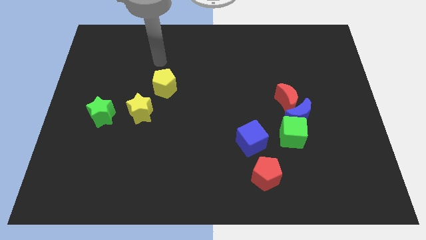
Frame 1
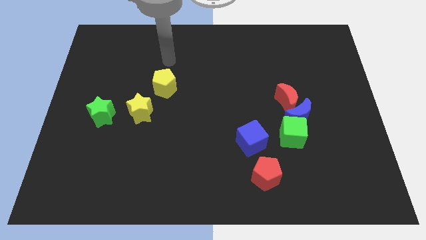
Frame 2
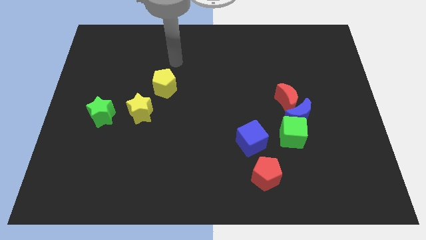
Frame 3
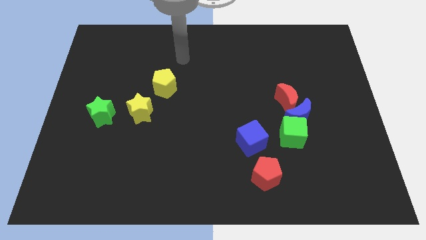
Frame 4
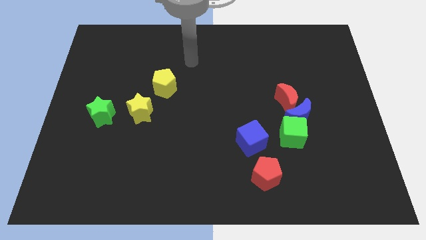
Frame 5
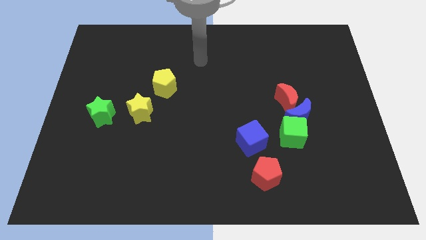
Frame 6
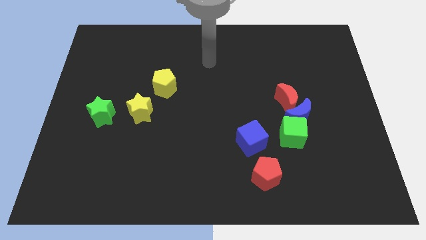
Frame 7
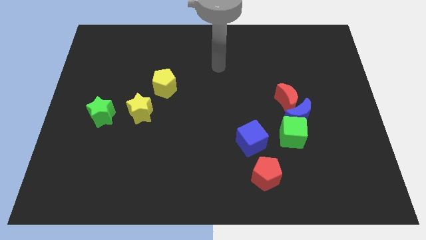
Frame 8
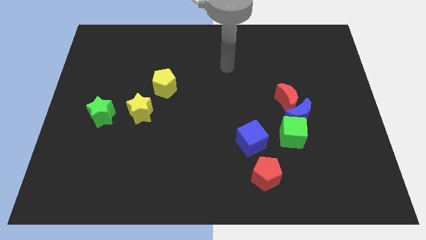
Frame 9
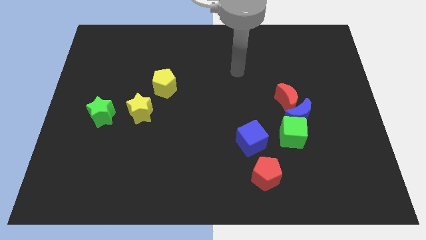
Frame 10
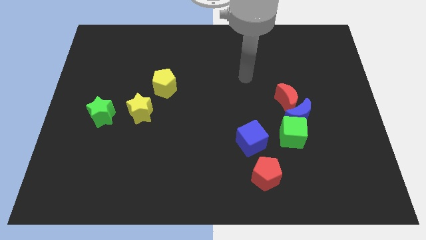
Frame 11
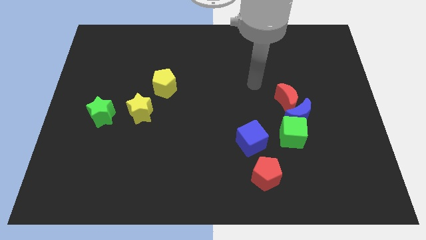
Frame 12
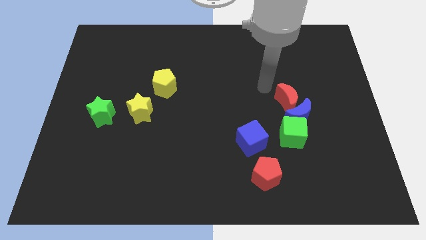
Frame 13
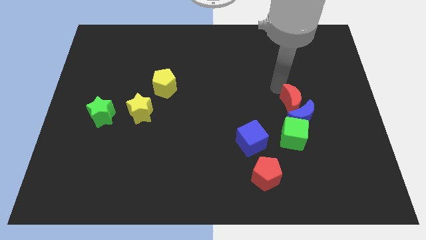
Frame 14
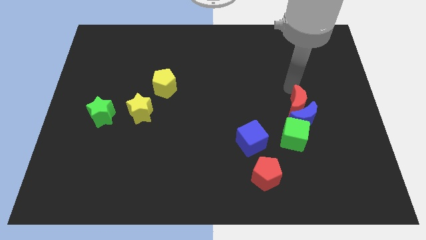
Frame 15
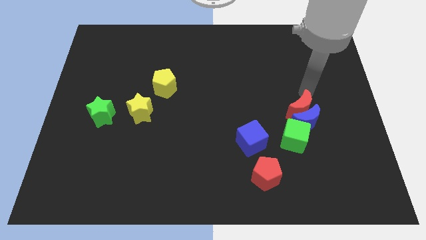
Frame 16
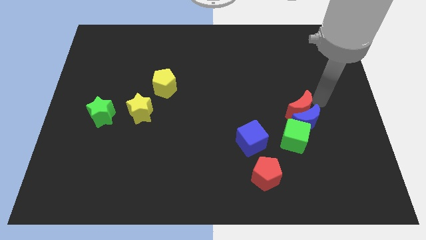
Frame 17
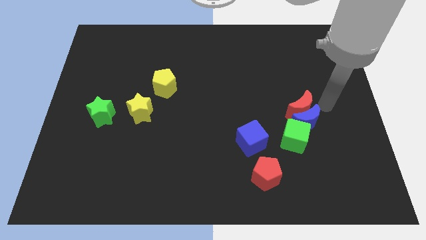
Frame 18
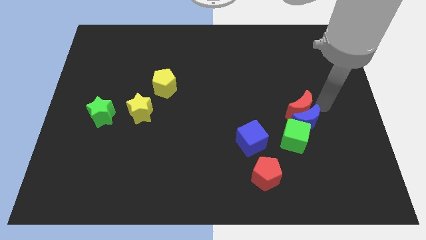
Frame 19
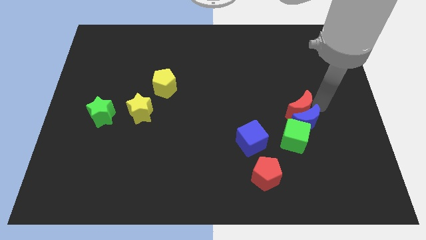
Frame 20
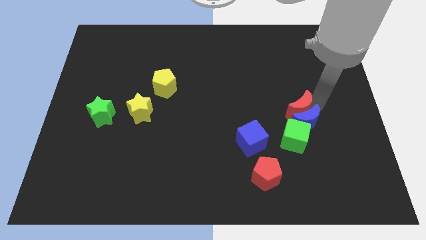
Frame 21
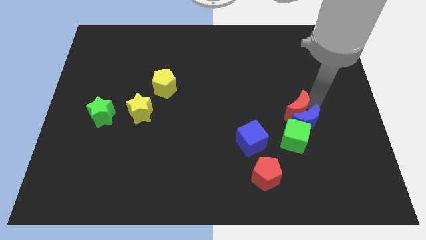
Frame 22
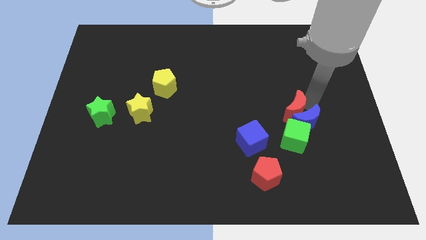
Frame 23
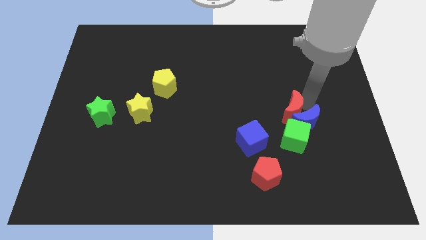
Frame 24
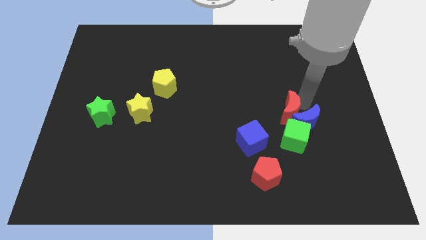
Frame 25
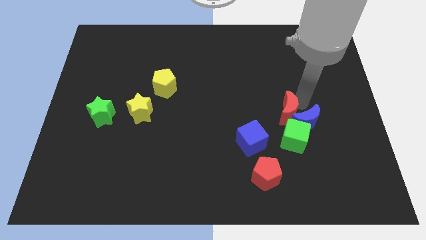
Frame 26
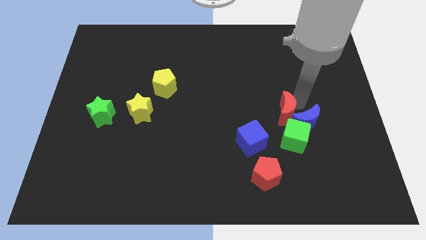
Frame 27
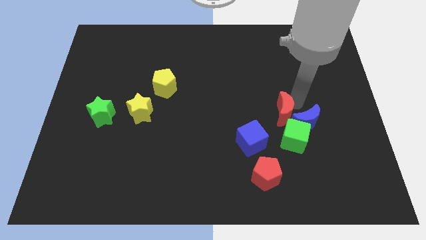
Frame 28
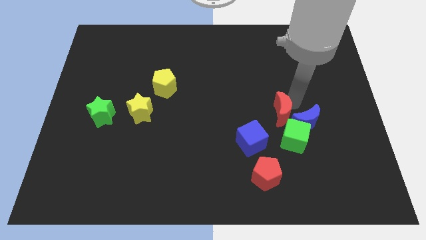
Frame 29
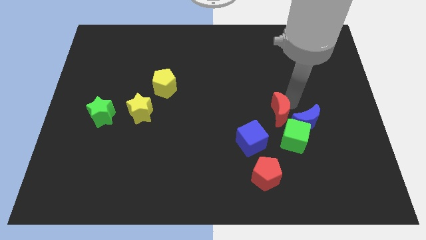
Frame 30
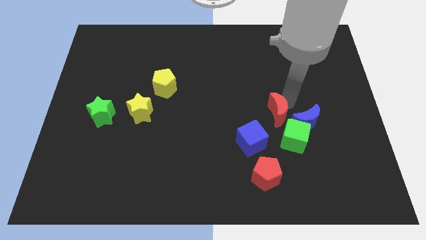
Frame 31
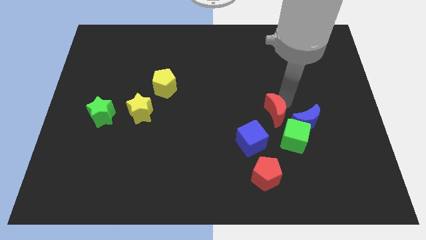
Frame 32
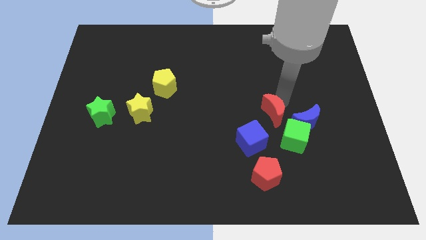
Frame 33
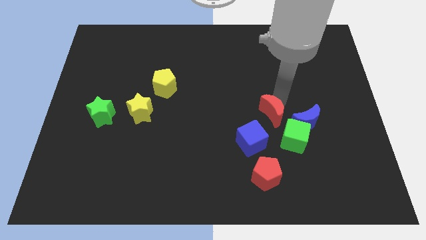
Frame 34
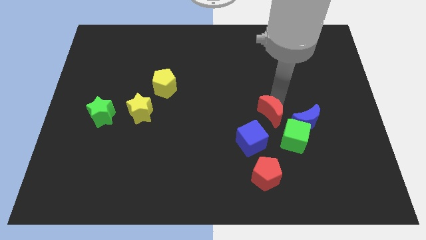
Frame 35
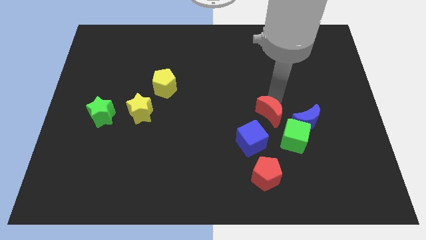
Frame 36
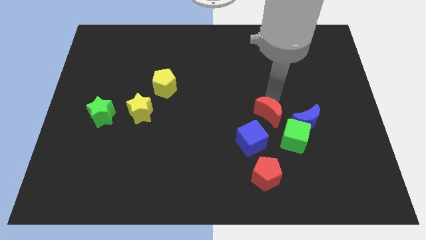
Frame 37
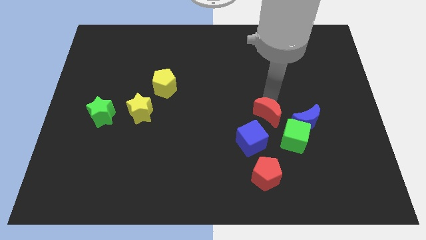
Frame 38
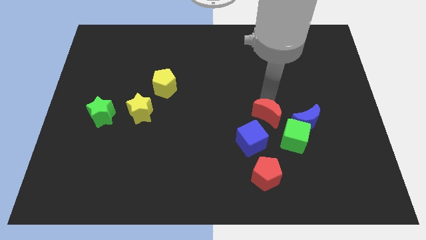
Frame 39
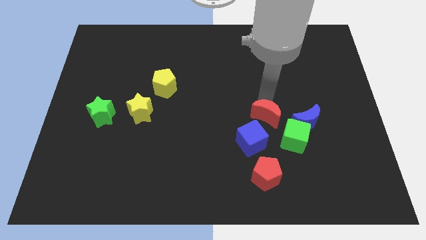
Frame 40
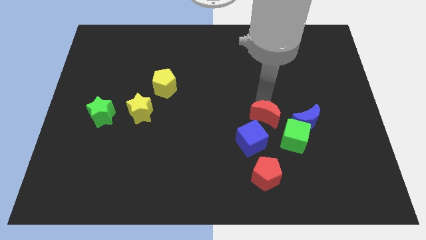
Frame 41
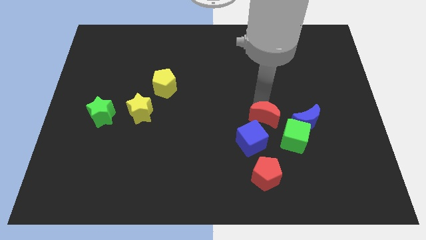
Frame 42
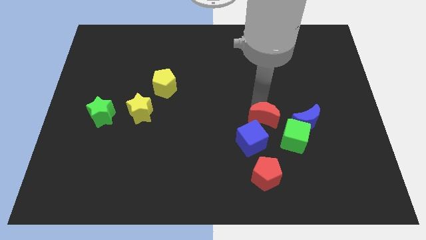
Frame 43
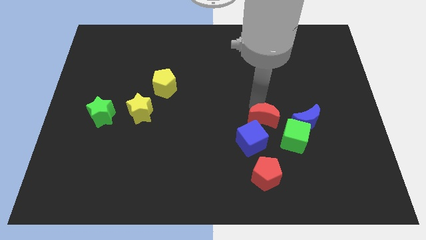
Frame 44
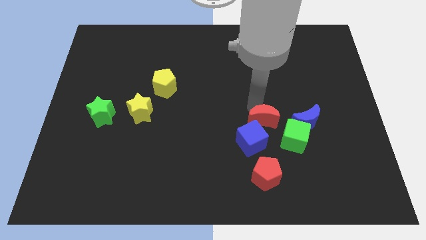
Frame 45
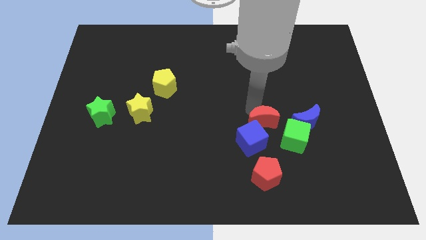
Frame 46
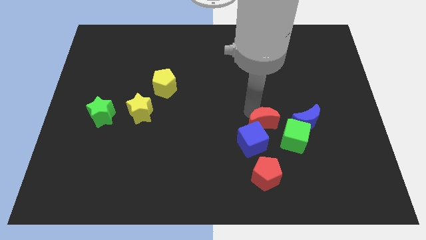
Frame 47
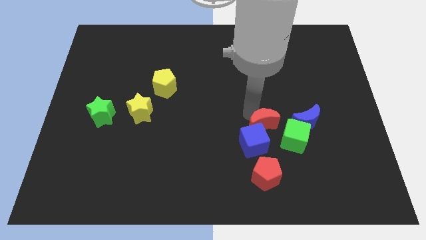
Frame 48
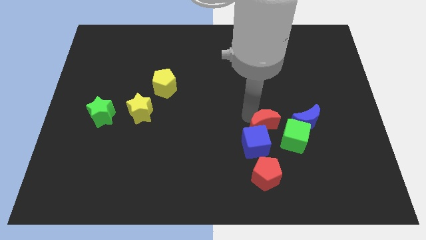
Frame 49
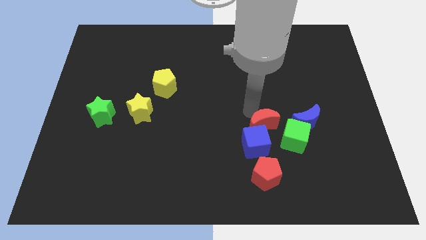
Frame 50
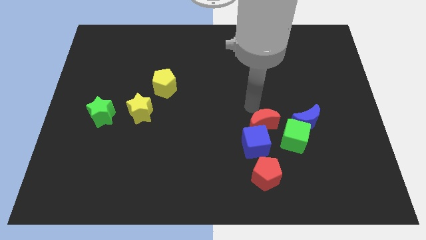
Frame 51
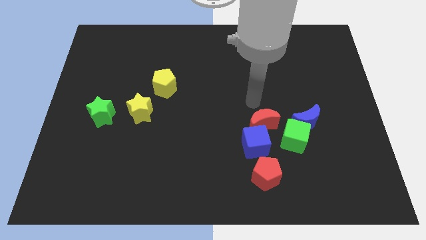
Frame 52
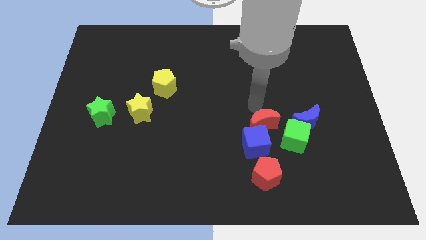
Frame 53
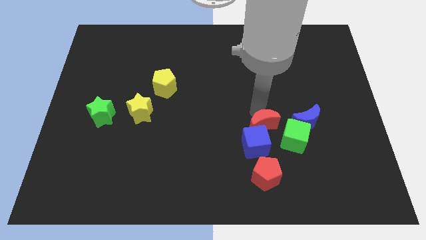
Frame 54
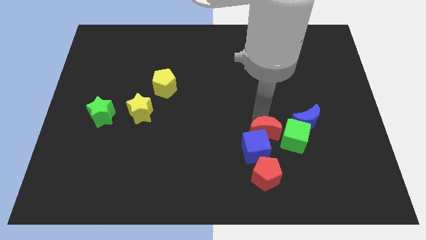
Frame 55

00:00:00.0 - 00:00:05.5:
slide the red moon a bit downwards

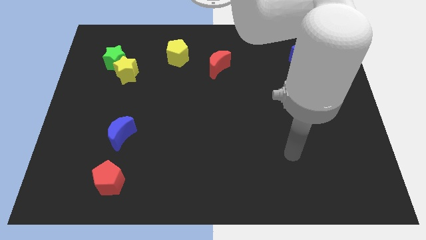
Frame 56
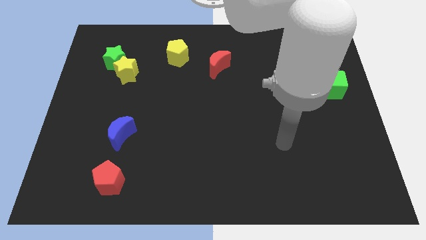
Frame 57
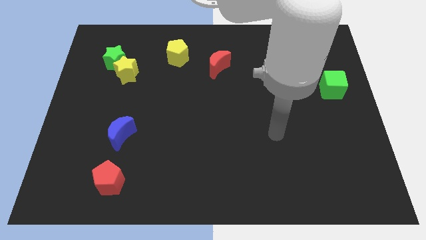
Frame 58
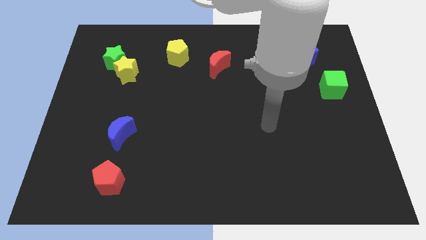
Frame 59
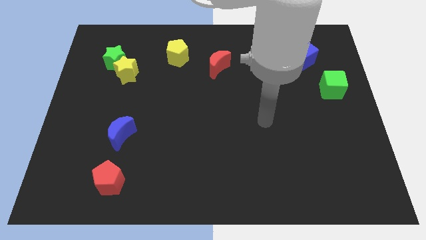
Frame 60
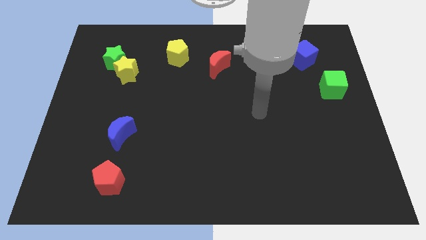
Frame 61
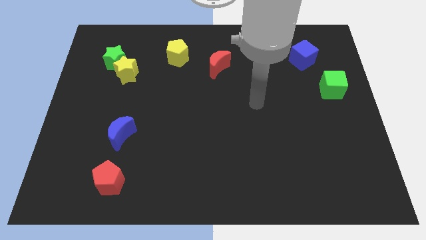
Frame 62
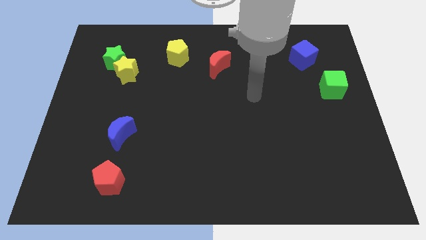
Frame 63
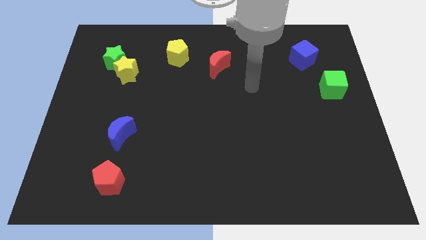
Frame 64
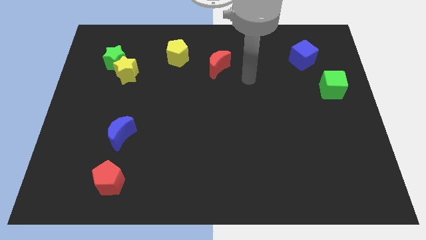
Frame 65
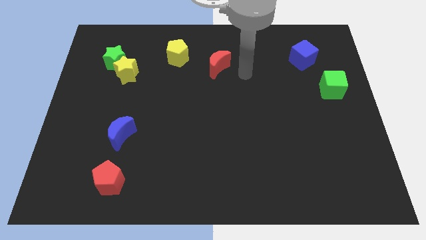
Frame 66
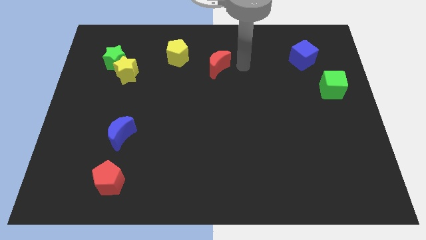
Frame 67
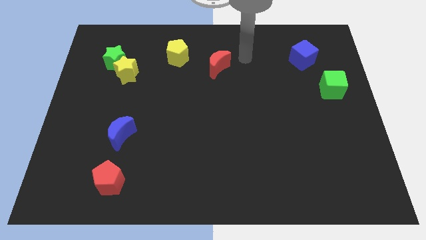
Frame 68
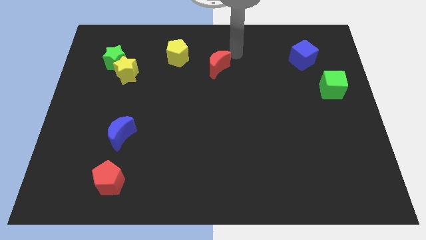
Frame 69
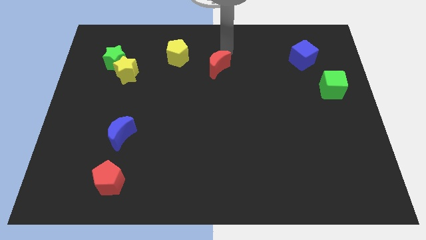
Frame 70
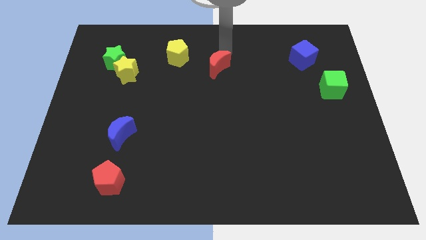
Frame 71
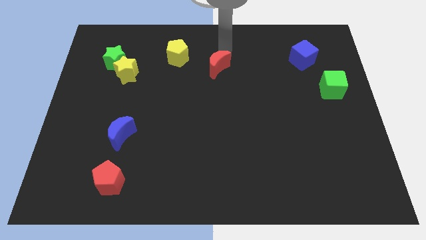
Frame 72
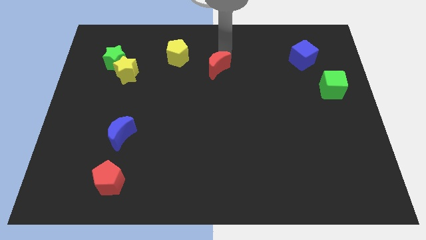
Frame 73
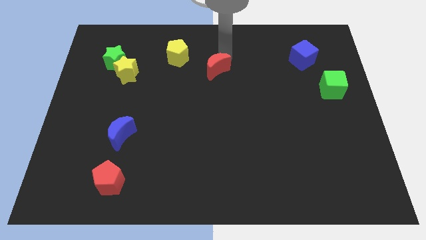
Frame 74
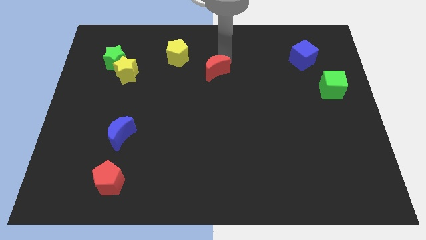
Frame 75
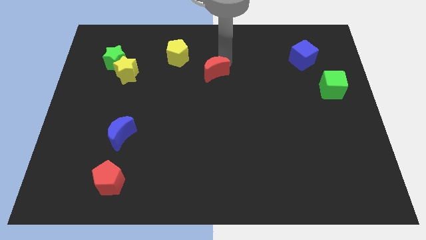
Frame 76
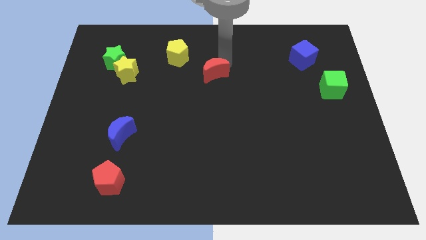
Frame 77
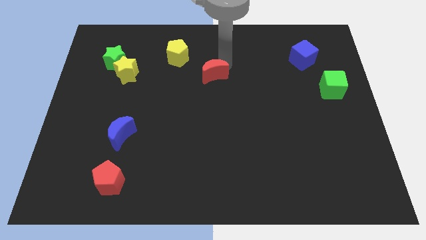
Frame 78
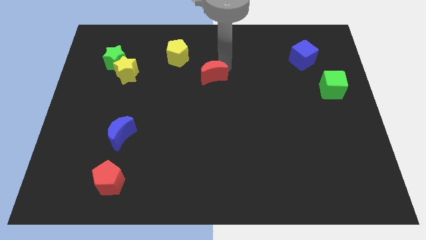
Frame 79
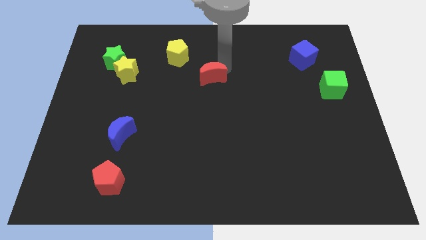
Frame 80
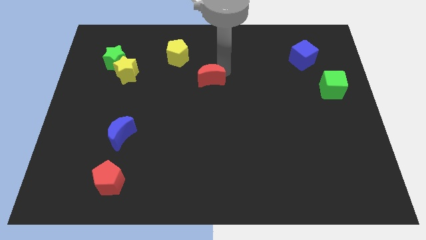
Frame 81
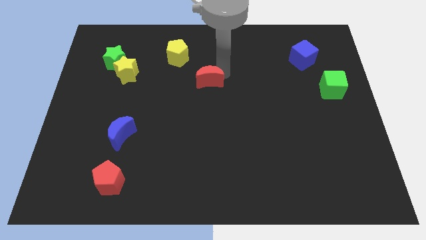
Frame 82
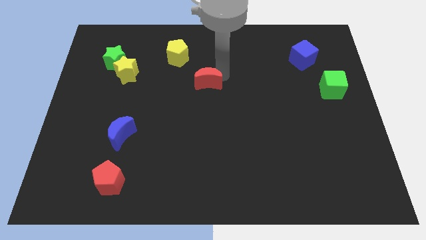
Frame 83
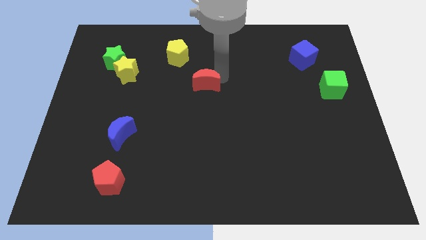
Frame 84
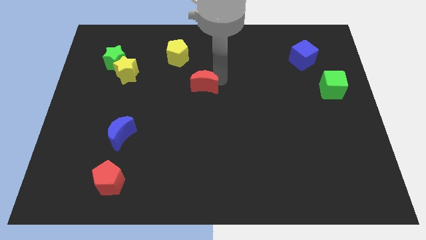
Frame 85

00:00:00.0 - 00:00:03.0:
move the red moon downwards and then to the left a bit
